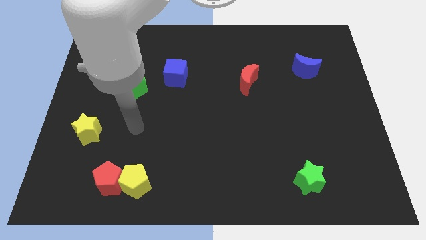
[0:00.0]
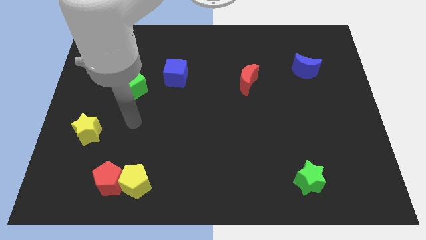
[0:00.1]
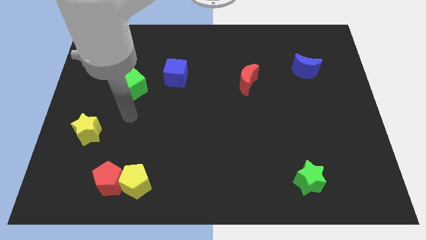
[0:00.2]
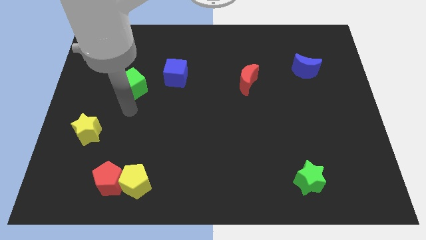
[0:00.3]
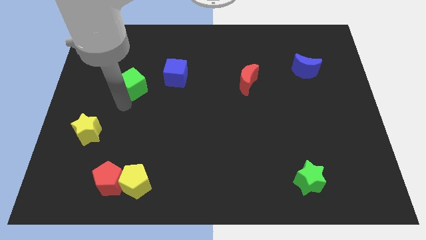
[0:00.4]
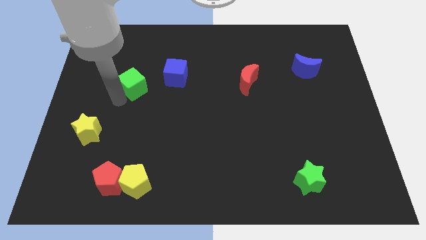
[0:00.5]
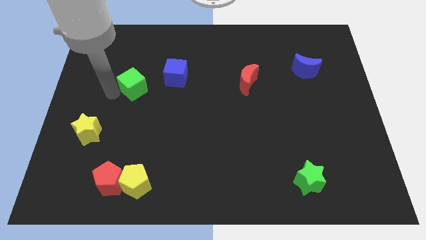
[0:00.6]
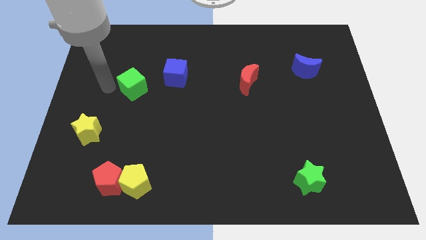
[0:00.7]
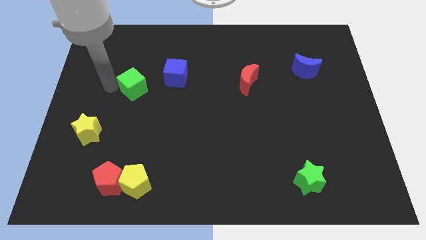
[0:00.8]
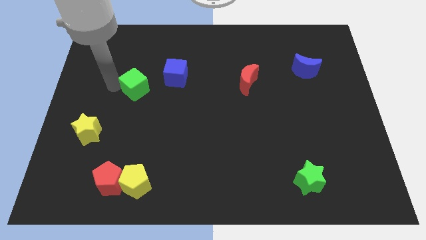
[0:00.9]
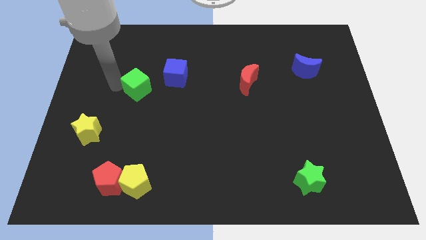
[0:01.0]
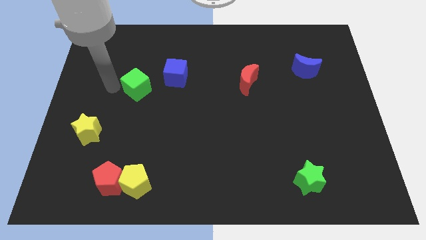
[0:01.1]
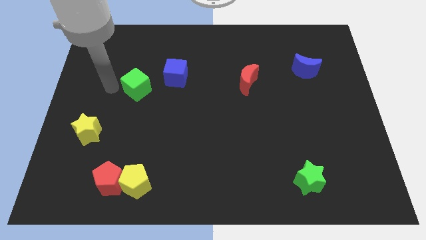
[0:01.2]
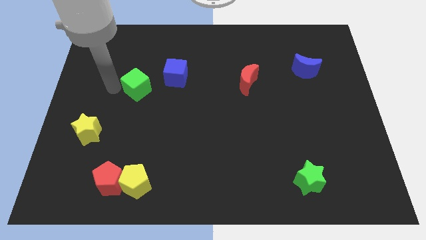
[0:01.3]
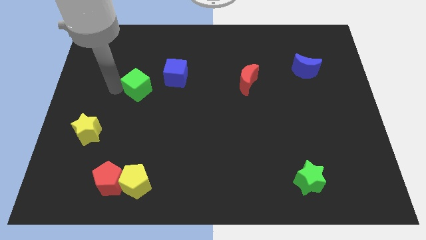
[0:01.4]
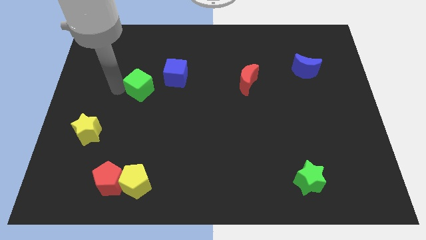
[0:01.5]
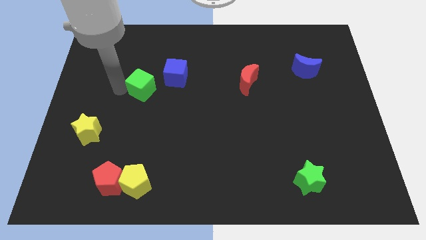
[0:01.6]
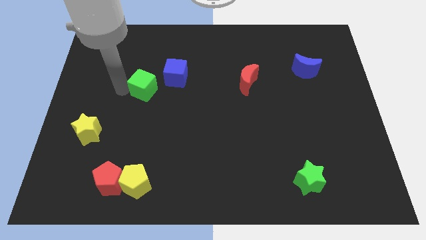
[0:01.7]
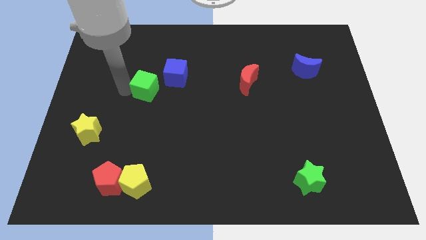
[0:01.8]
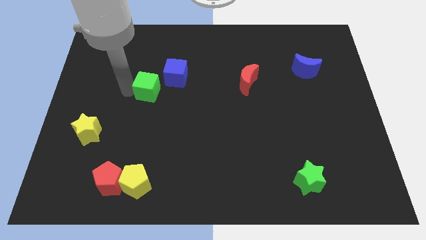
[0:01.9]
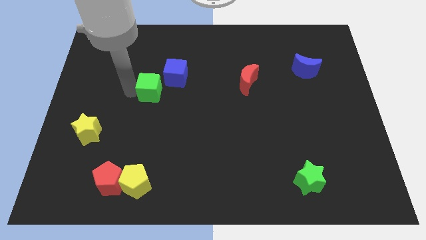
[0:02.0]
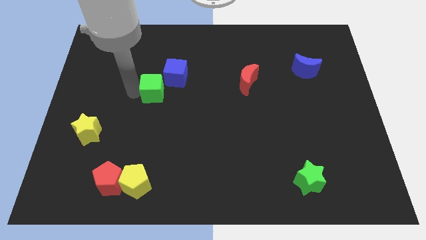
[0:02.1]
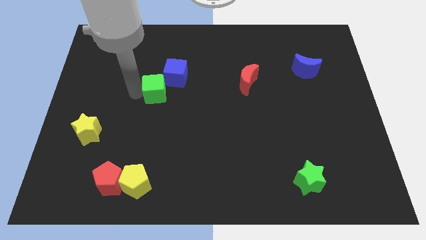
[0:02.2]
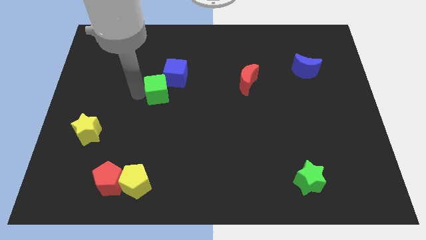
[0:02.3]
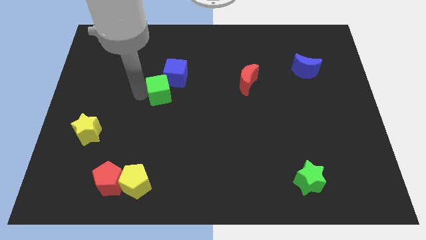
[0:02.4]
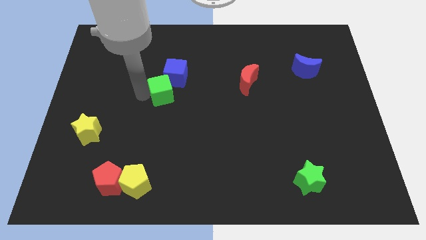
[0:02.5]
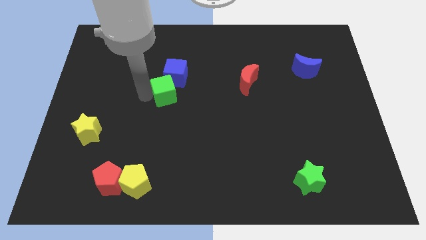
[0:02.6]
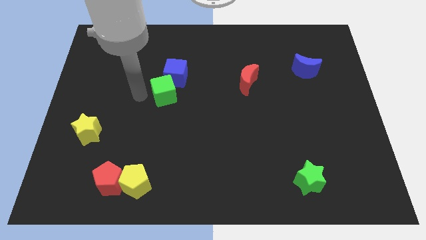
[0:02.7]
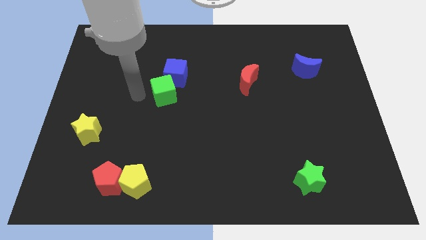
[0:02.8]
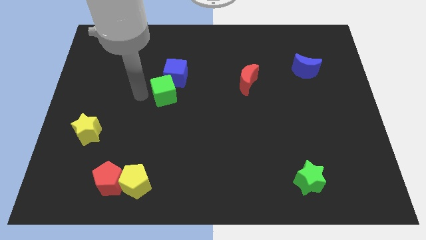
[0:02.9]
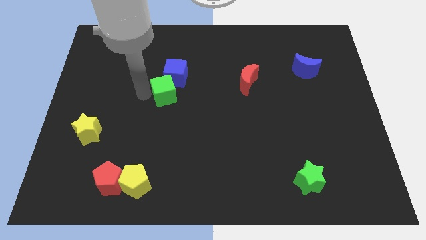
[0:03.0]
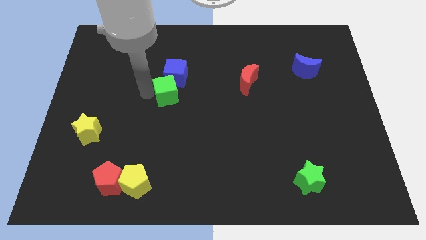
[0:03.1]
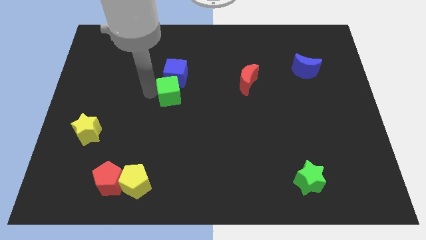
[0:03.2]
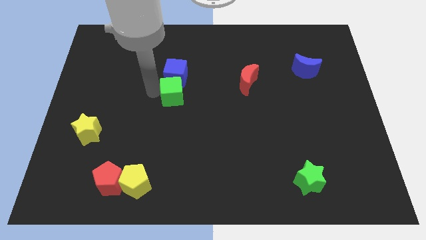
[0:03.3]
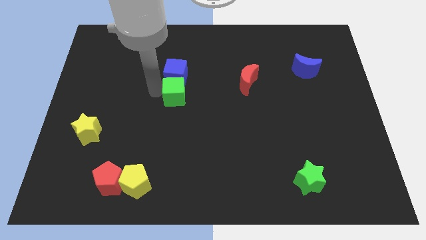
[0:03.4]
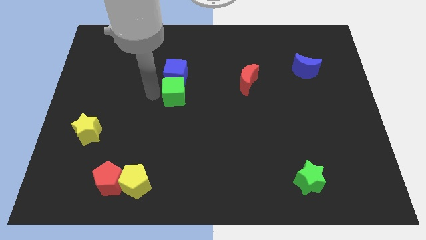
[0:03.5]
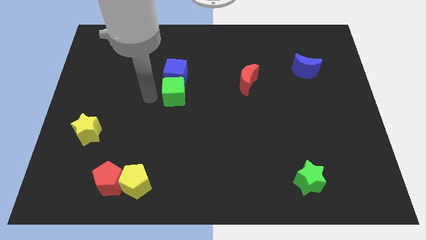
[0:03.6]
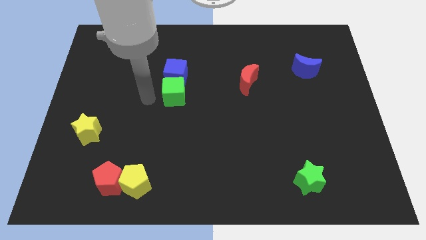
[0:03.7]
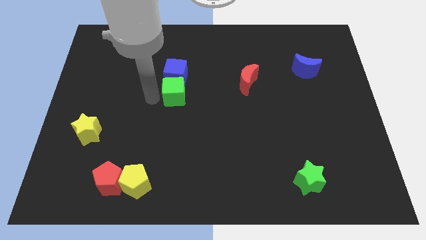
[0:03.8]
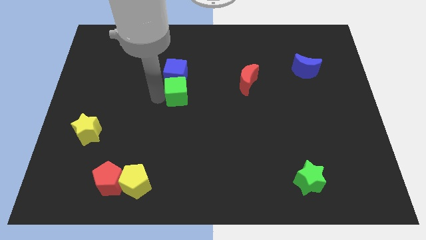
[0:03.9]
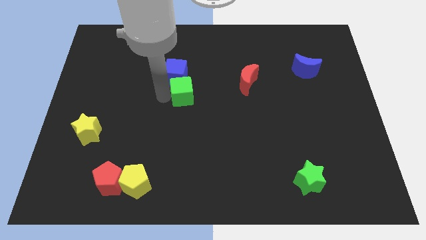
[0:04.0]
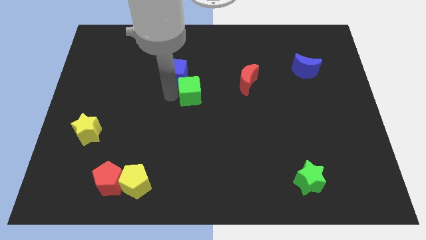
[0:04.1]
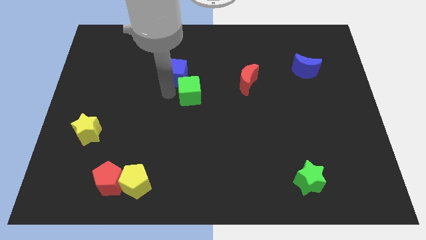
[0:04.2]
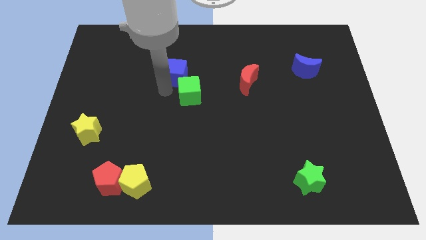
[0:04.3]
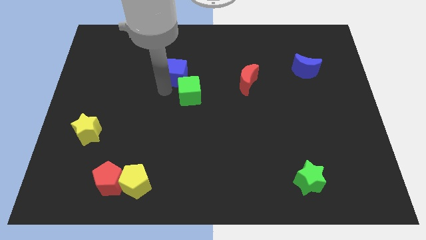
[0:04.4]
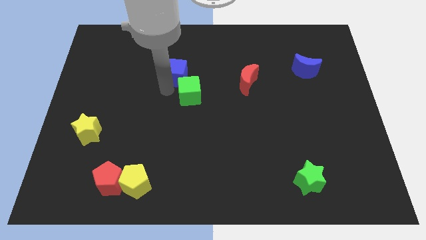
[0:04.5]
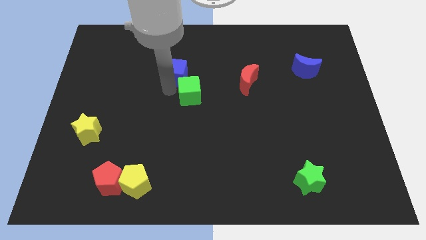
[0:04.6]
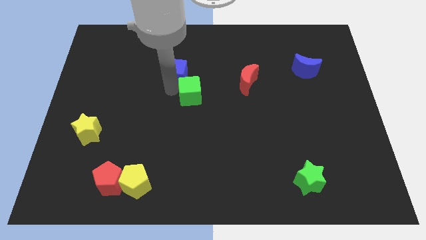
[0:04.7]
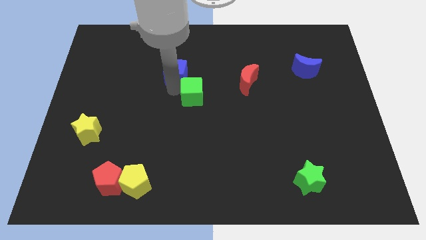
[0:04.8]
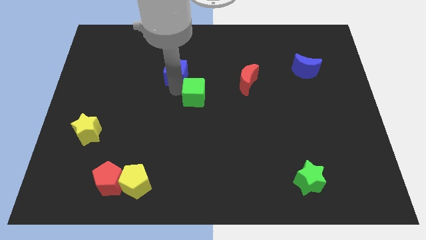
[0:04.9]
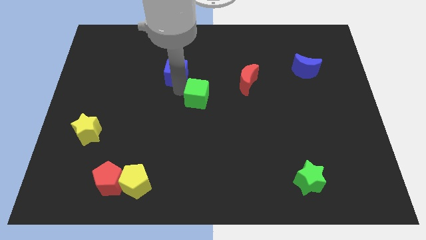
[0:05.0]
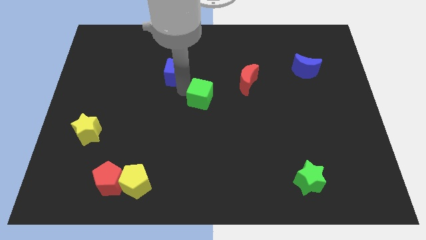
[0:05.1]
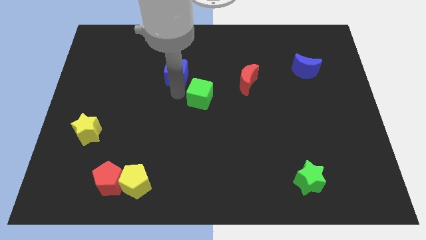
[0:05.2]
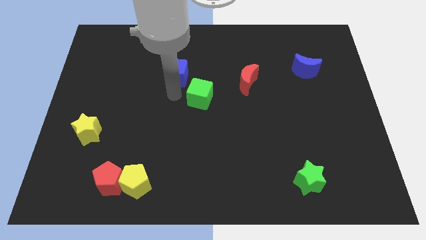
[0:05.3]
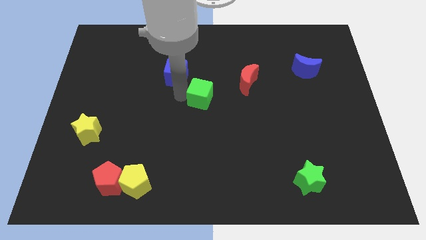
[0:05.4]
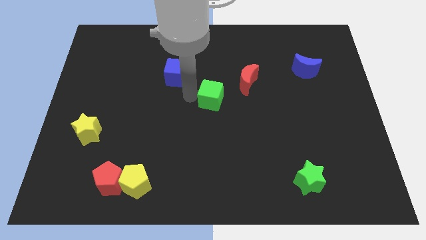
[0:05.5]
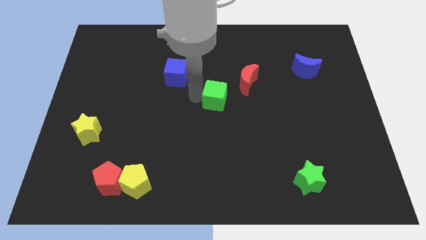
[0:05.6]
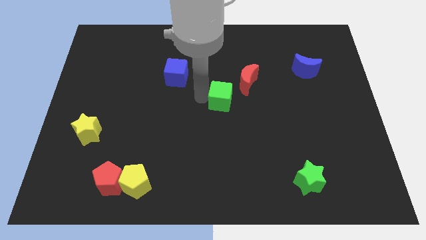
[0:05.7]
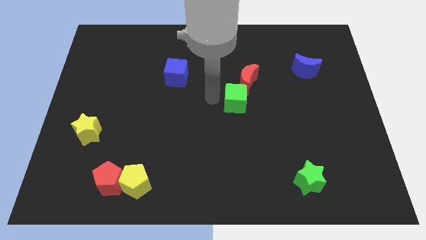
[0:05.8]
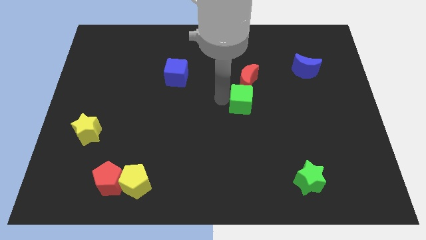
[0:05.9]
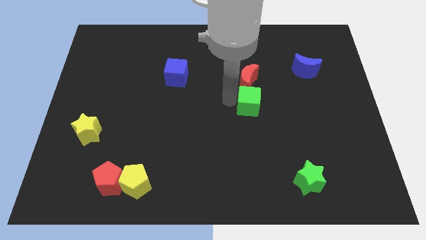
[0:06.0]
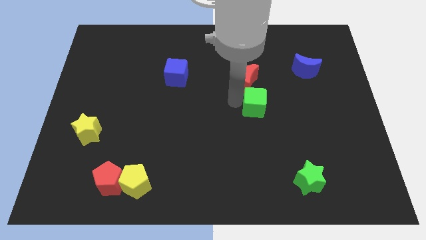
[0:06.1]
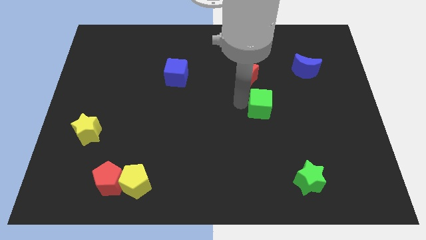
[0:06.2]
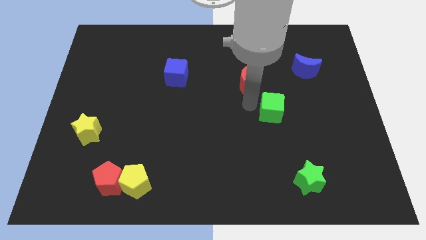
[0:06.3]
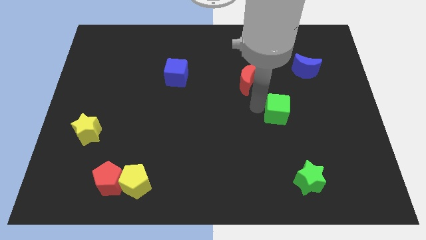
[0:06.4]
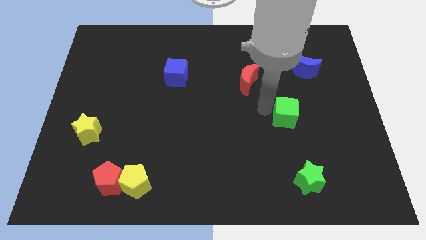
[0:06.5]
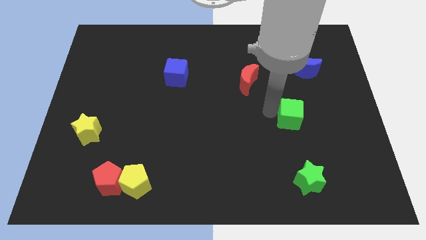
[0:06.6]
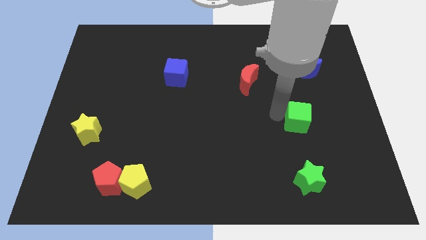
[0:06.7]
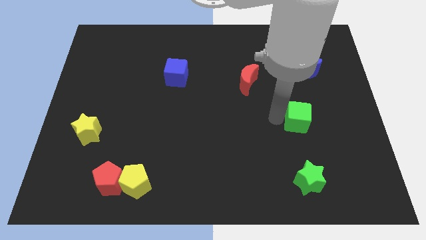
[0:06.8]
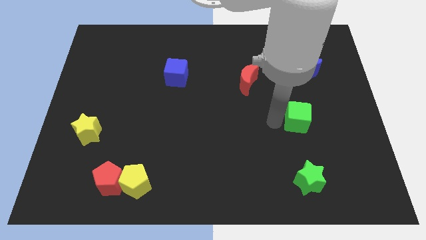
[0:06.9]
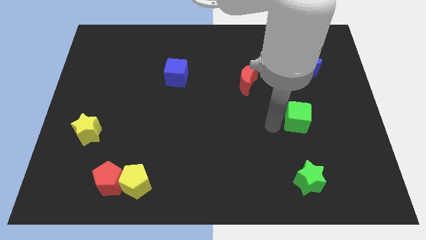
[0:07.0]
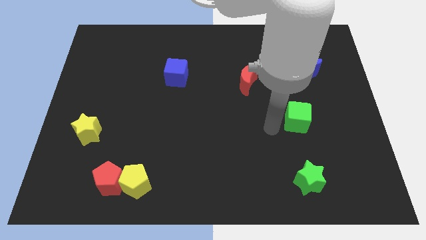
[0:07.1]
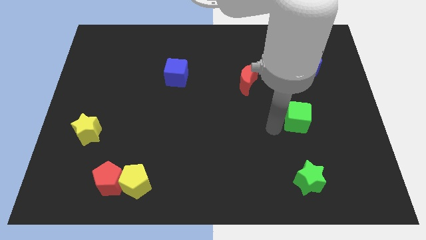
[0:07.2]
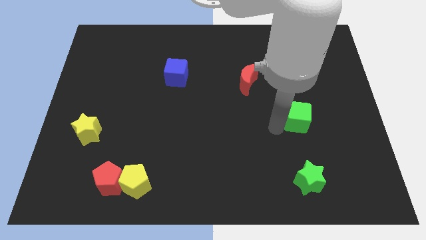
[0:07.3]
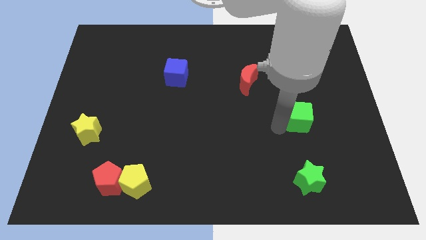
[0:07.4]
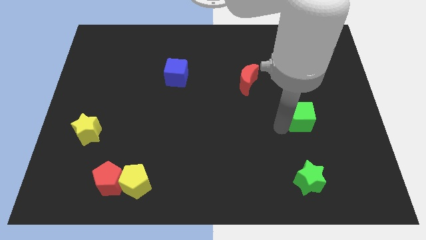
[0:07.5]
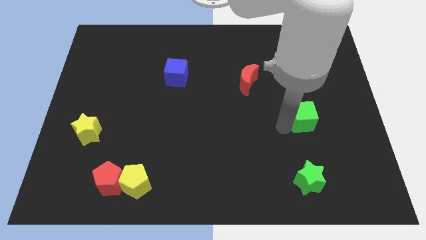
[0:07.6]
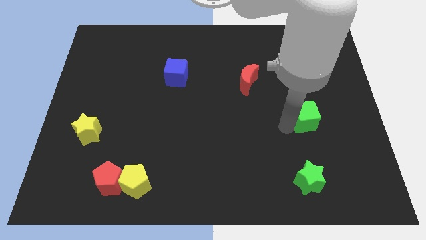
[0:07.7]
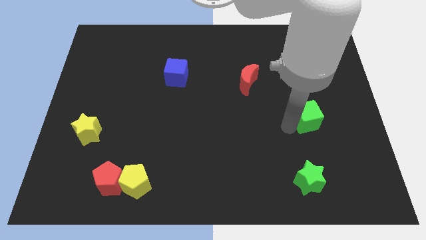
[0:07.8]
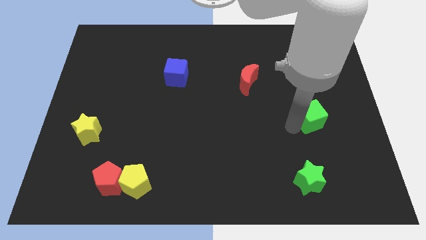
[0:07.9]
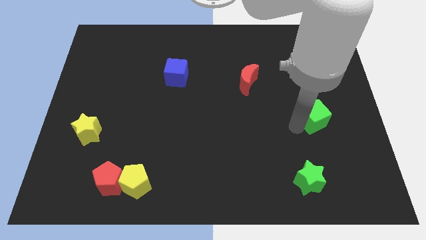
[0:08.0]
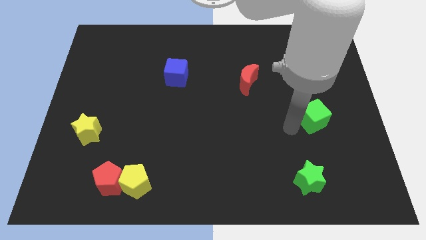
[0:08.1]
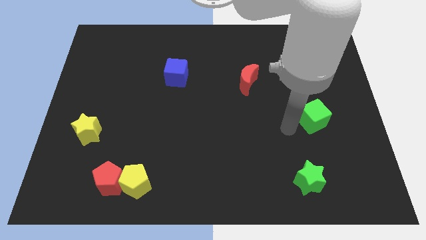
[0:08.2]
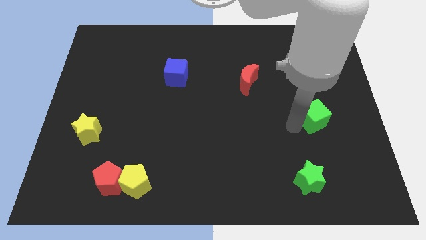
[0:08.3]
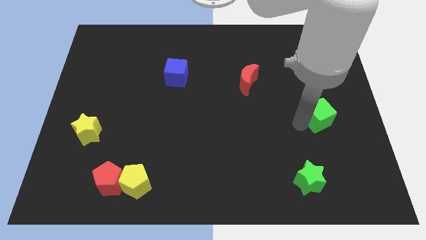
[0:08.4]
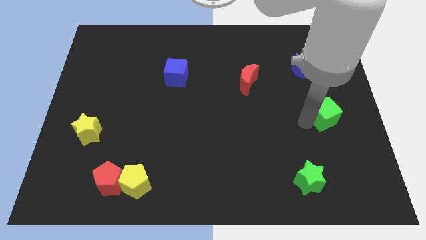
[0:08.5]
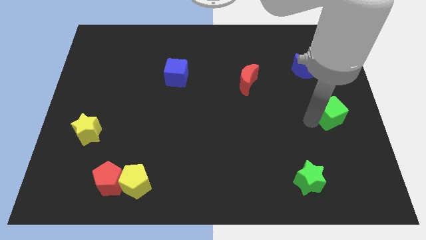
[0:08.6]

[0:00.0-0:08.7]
move the green cube to the center right
